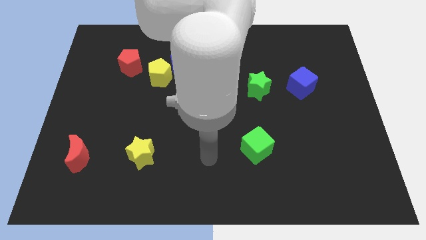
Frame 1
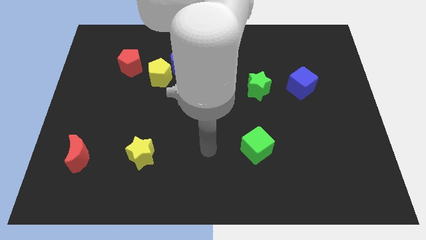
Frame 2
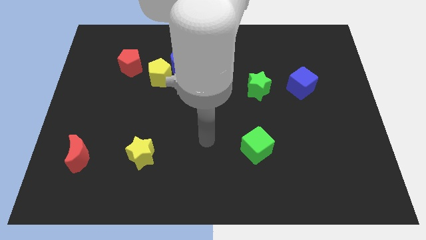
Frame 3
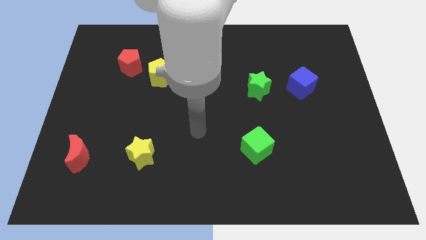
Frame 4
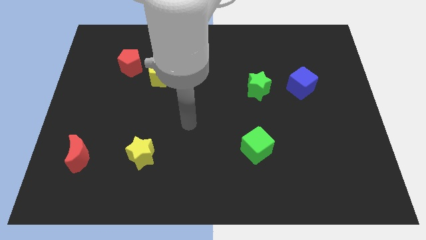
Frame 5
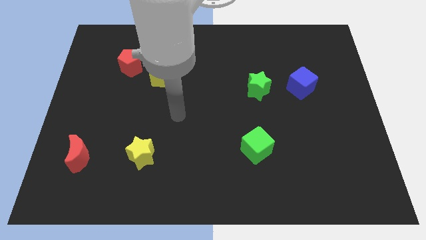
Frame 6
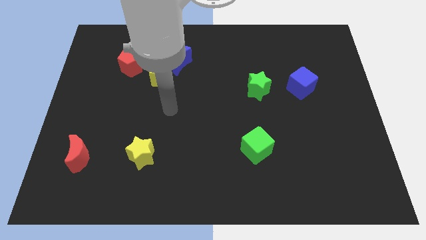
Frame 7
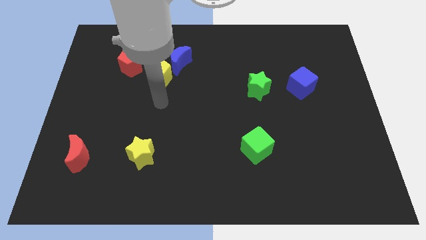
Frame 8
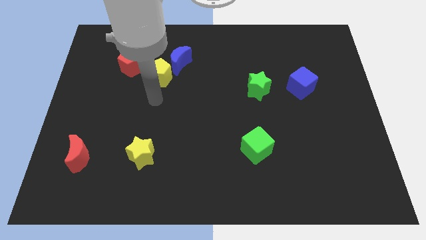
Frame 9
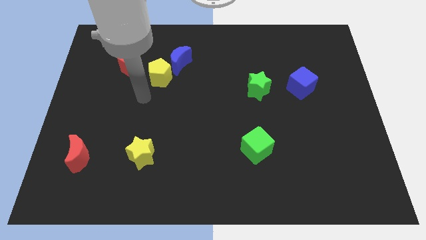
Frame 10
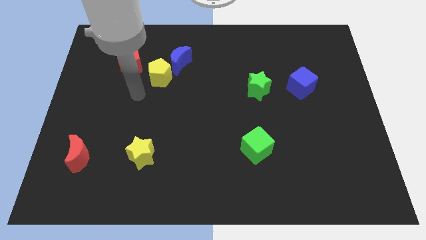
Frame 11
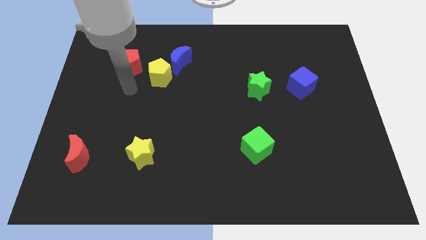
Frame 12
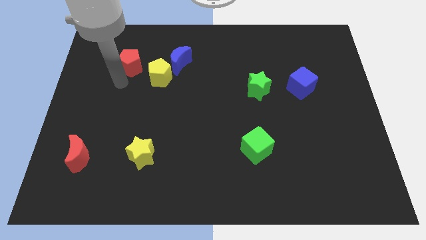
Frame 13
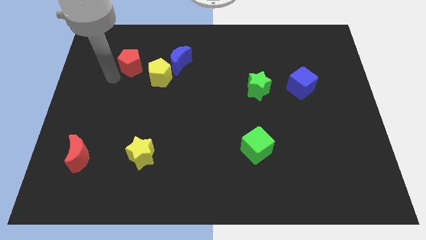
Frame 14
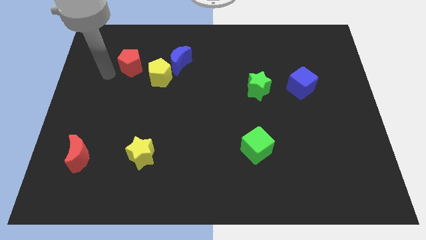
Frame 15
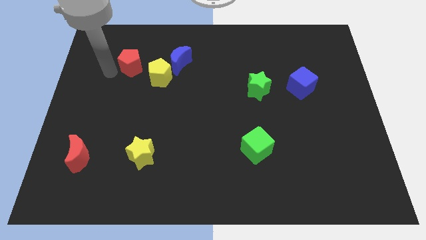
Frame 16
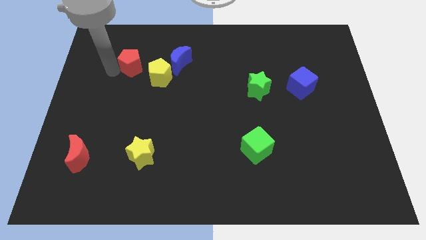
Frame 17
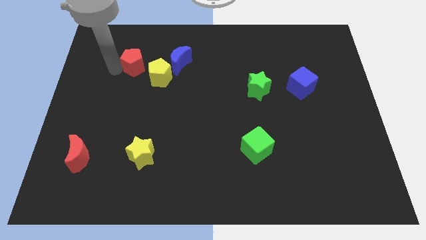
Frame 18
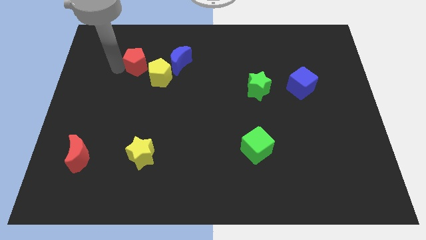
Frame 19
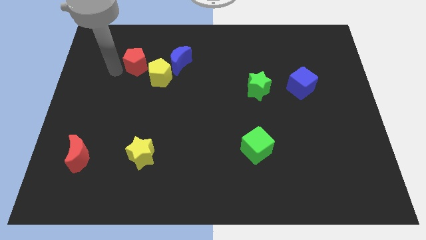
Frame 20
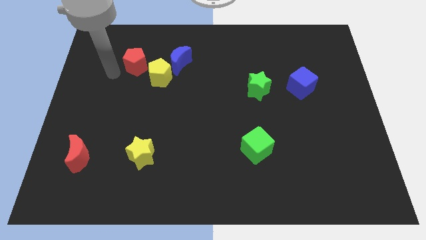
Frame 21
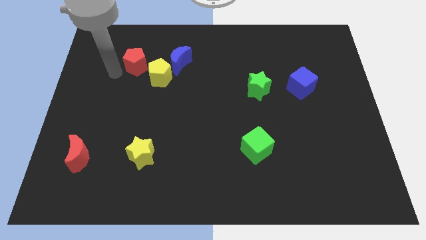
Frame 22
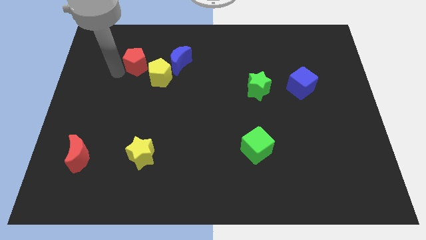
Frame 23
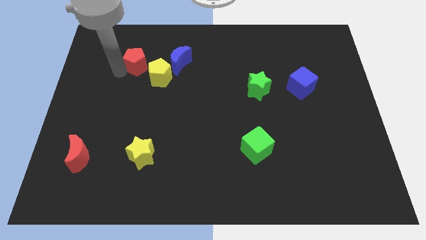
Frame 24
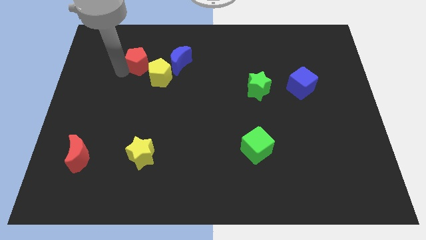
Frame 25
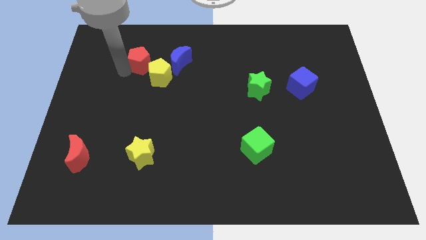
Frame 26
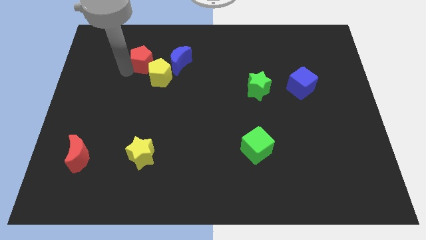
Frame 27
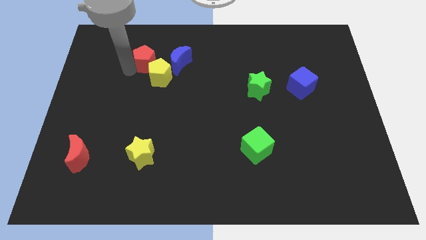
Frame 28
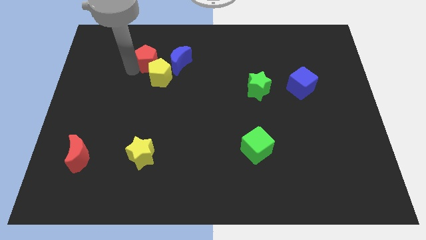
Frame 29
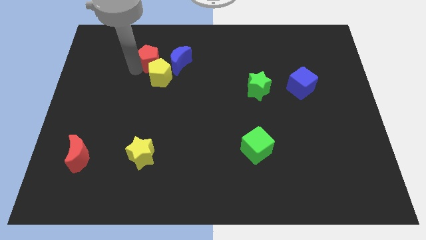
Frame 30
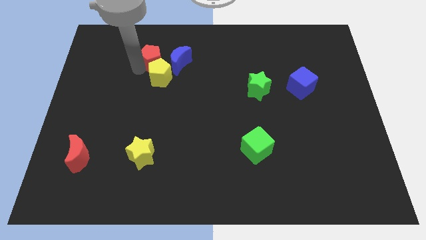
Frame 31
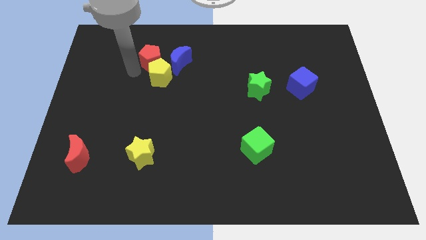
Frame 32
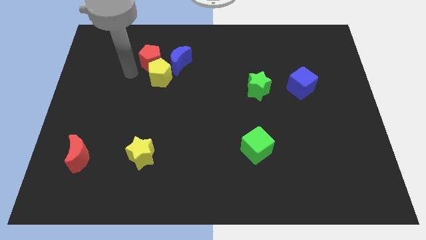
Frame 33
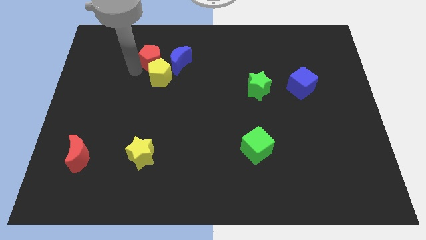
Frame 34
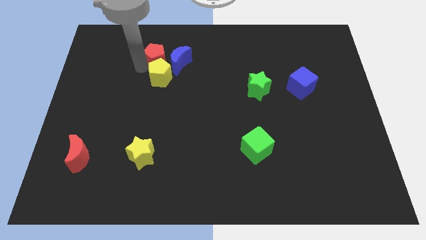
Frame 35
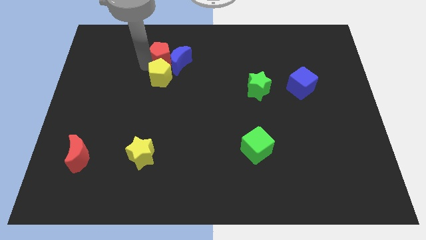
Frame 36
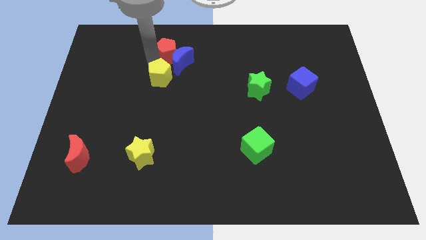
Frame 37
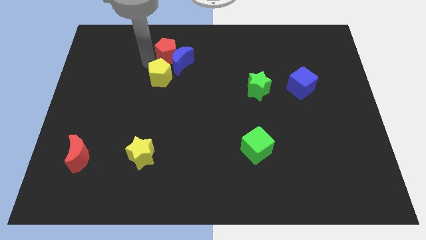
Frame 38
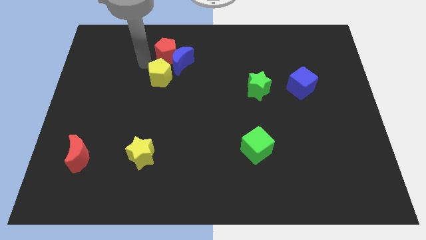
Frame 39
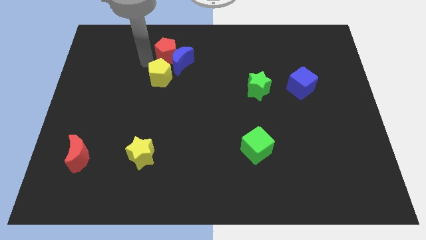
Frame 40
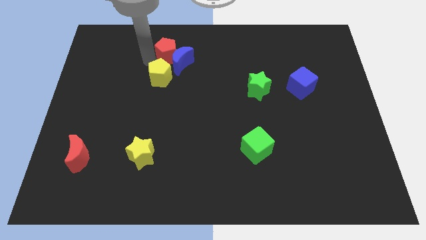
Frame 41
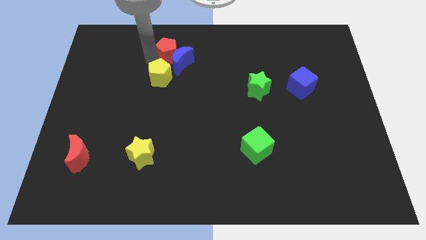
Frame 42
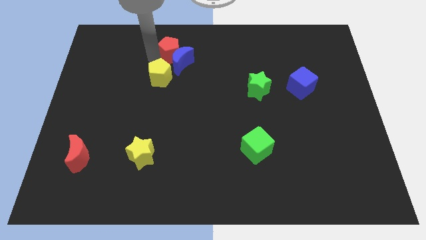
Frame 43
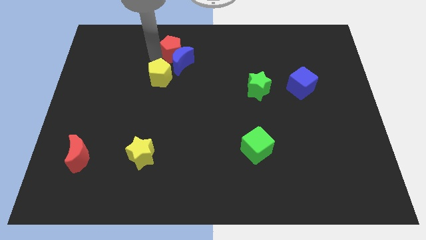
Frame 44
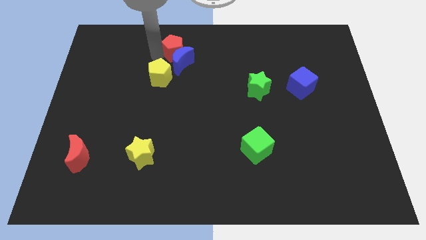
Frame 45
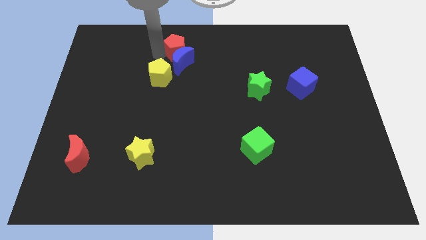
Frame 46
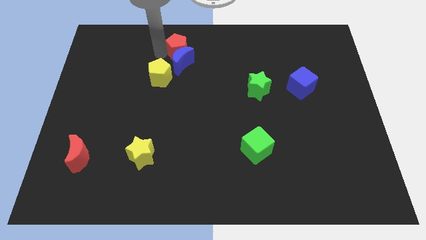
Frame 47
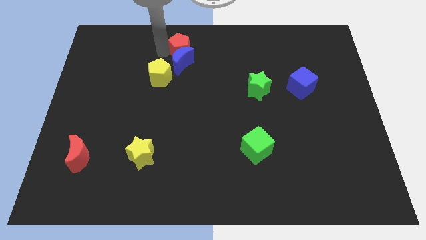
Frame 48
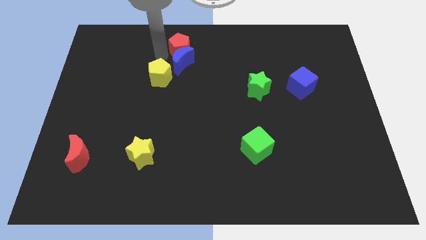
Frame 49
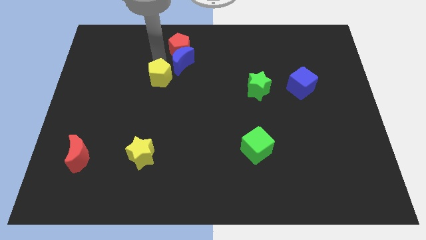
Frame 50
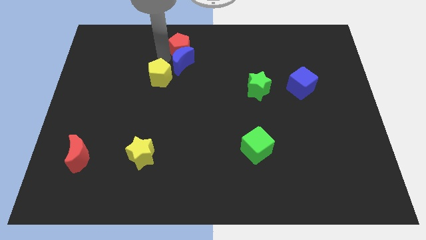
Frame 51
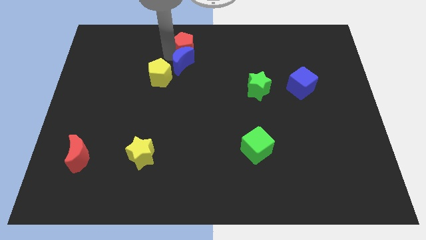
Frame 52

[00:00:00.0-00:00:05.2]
put the red pentagon to the towards your base

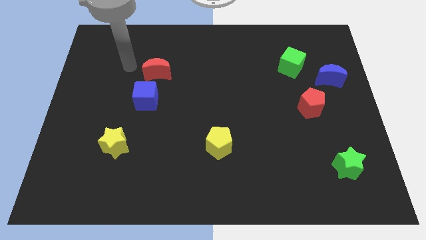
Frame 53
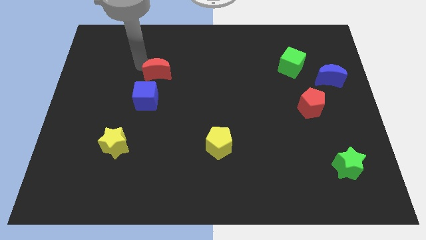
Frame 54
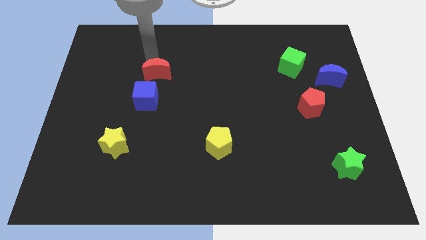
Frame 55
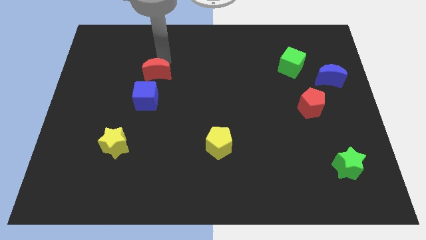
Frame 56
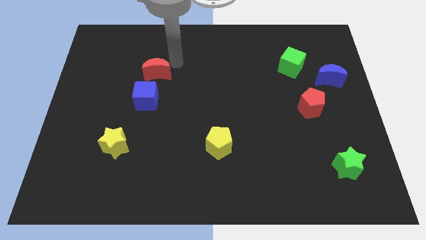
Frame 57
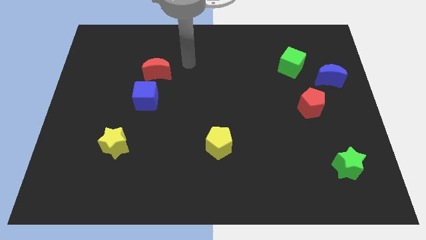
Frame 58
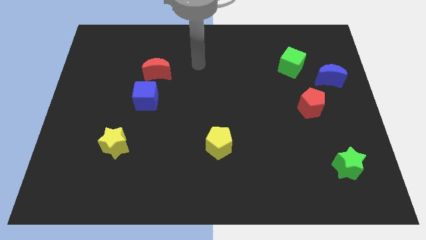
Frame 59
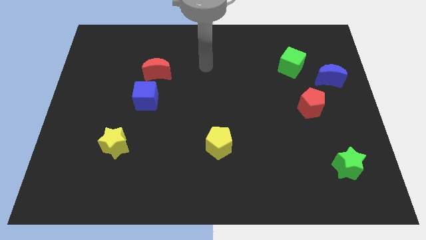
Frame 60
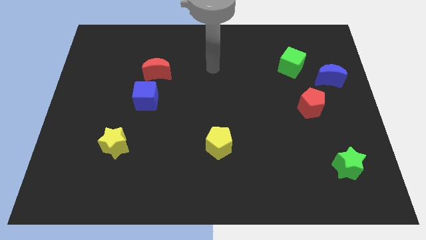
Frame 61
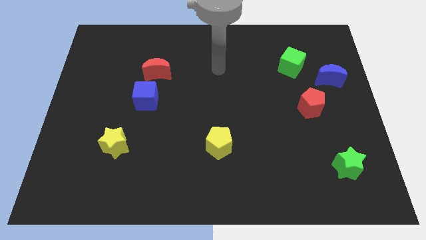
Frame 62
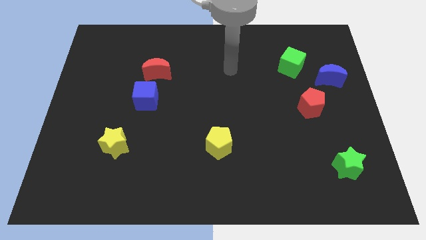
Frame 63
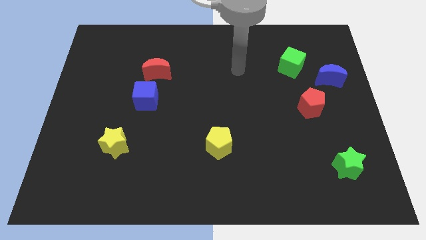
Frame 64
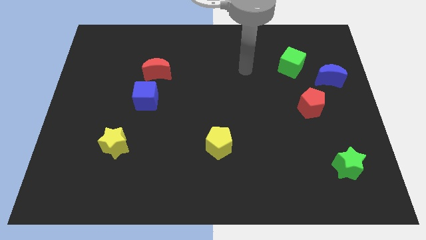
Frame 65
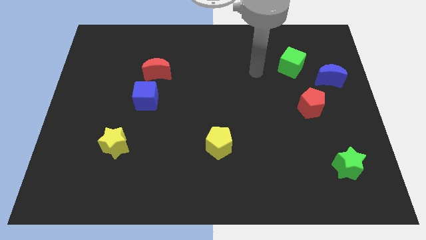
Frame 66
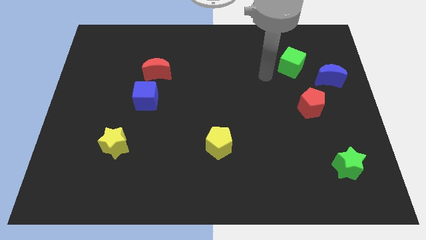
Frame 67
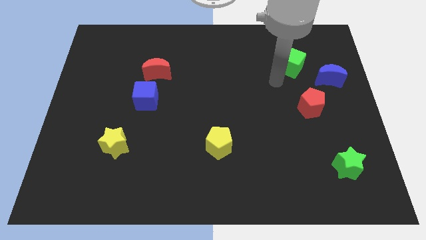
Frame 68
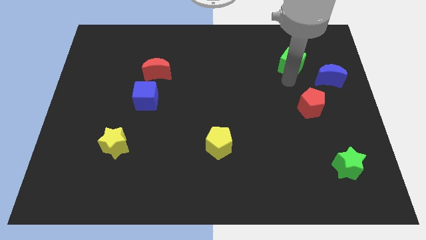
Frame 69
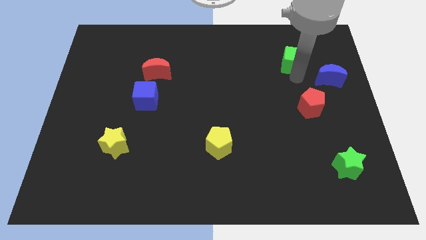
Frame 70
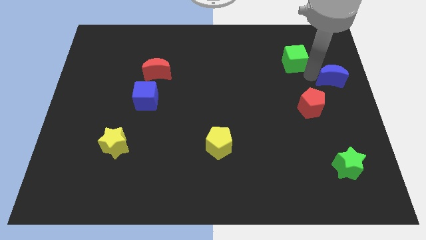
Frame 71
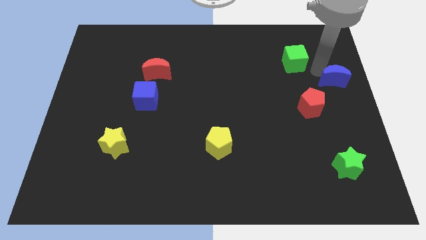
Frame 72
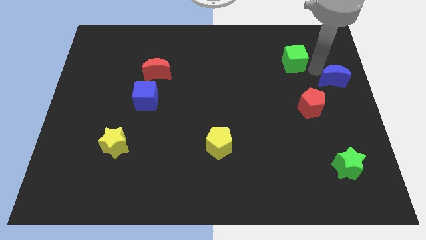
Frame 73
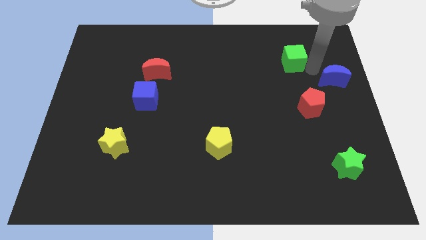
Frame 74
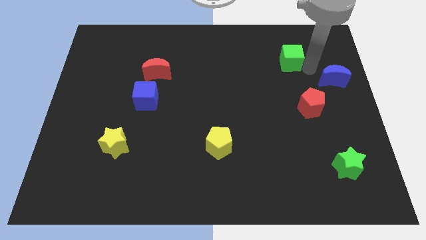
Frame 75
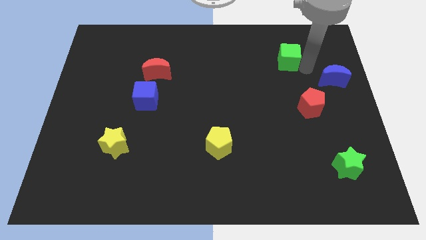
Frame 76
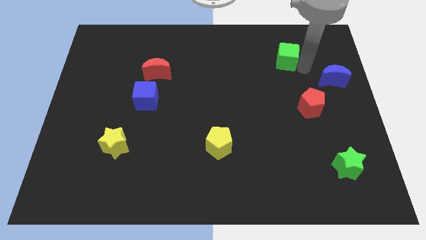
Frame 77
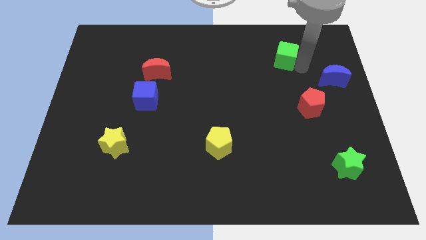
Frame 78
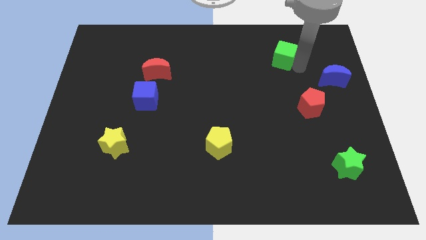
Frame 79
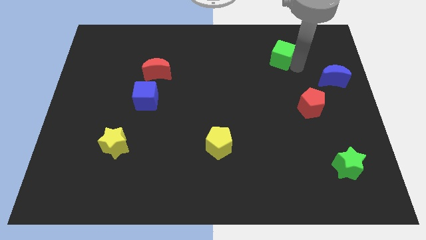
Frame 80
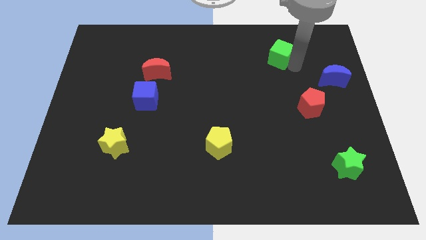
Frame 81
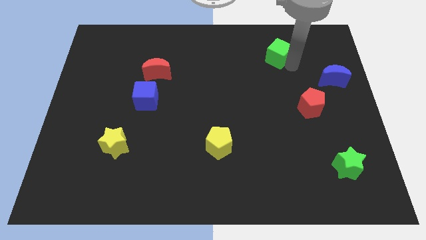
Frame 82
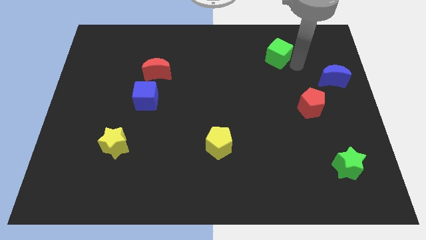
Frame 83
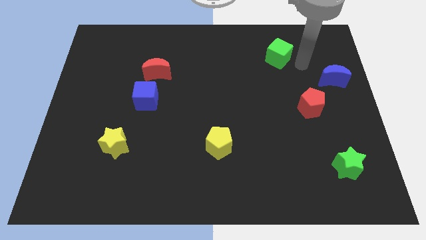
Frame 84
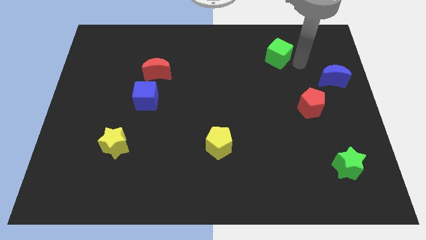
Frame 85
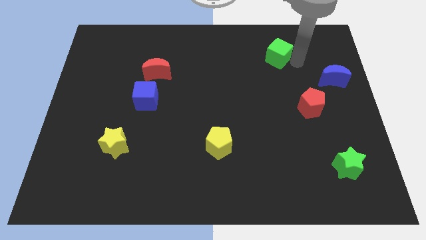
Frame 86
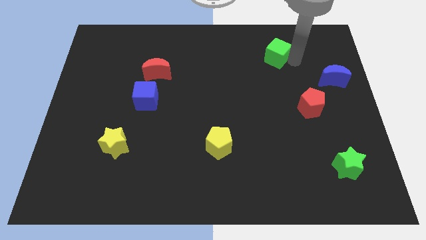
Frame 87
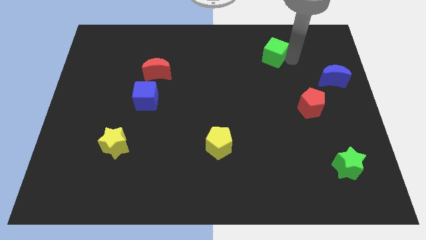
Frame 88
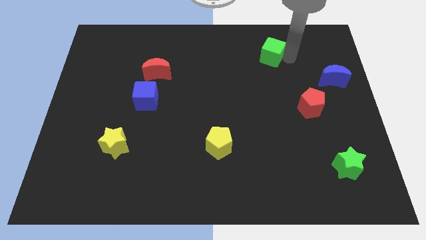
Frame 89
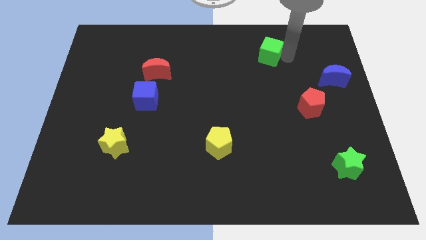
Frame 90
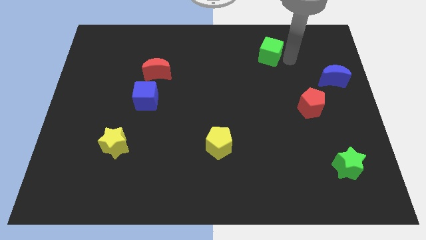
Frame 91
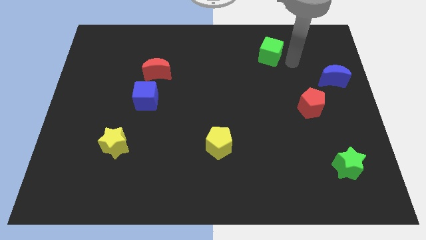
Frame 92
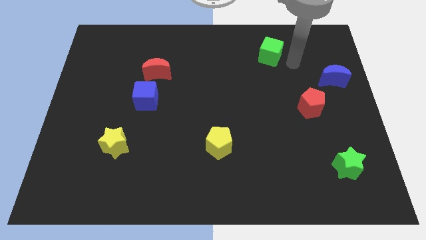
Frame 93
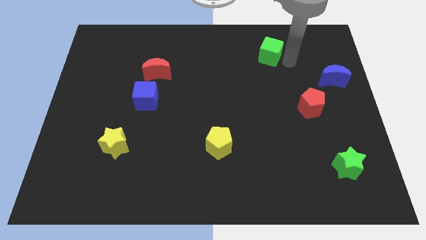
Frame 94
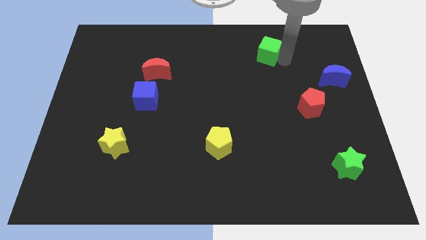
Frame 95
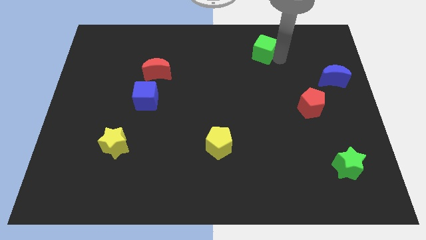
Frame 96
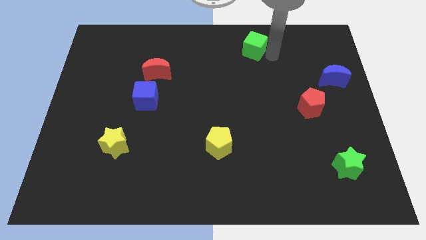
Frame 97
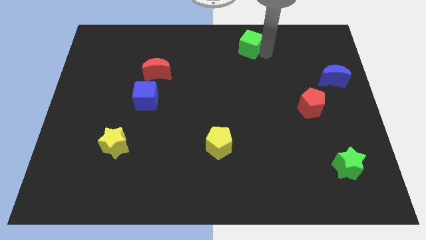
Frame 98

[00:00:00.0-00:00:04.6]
slide the green cube to the top
